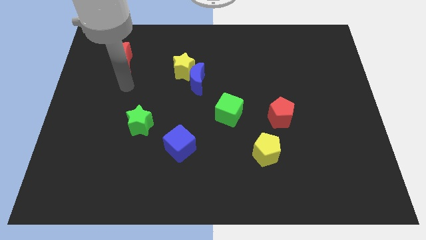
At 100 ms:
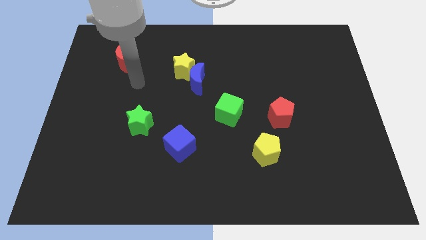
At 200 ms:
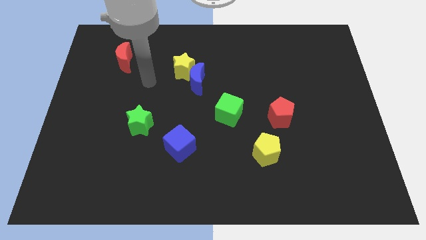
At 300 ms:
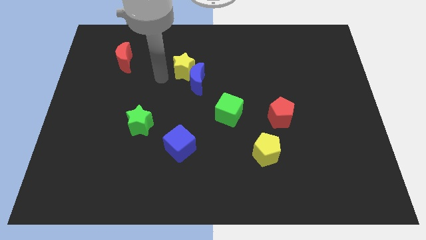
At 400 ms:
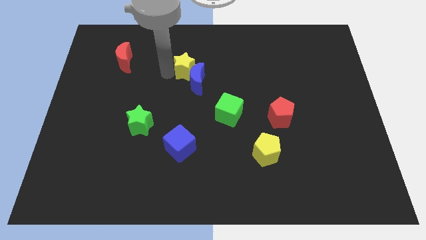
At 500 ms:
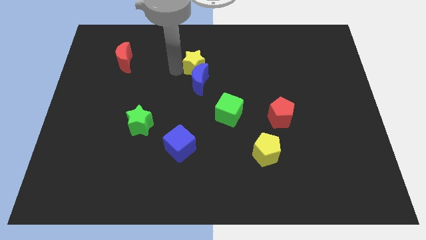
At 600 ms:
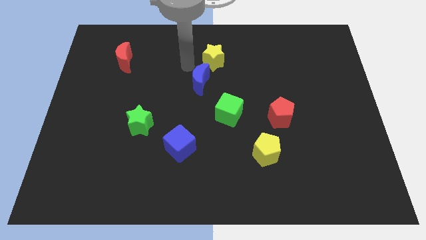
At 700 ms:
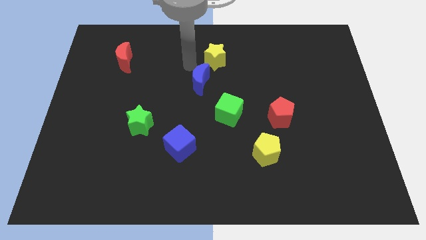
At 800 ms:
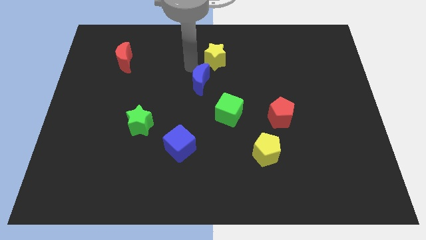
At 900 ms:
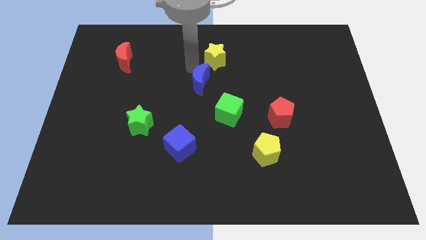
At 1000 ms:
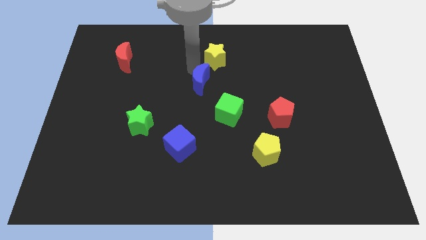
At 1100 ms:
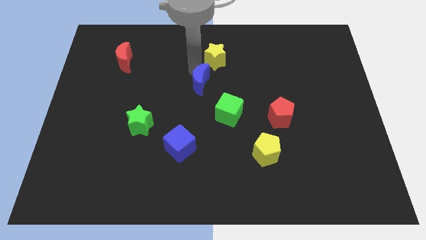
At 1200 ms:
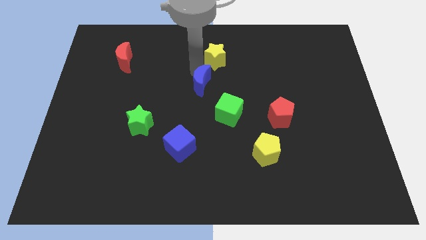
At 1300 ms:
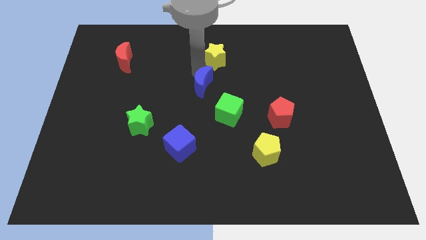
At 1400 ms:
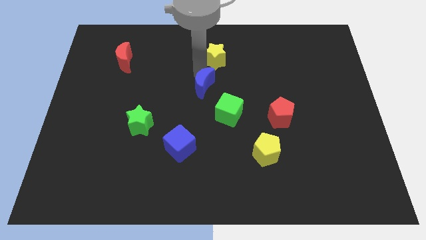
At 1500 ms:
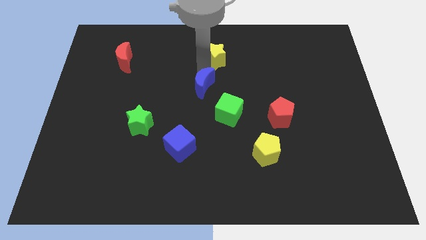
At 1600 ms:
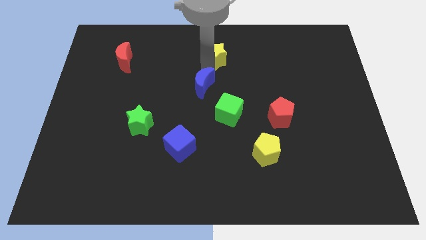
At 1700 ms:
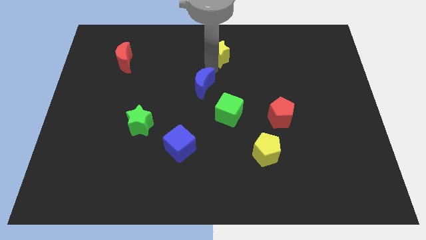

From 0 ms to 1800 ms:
separate the blue moon from the yellow star

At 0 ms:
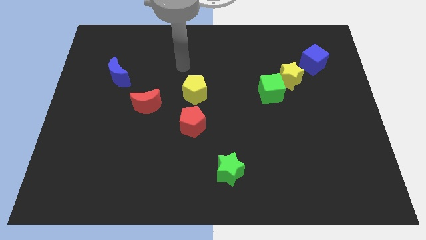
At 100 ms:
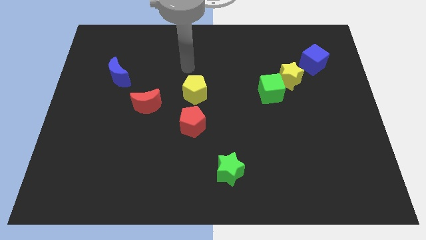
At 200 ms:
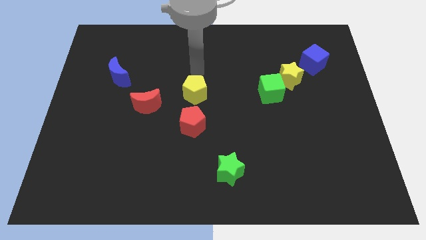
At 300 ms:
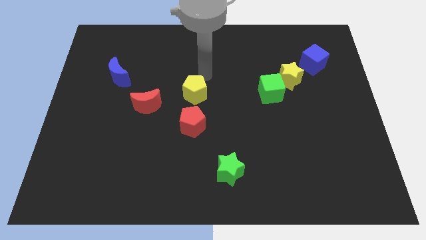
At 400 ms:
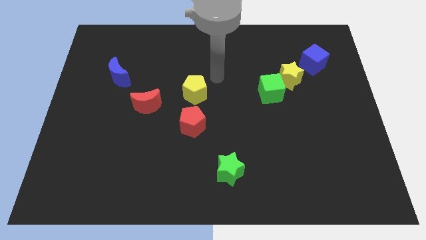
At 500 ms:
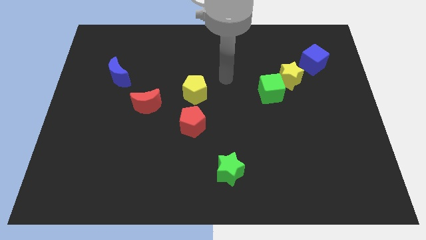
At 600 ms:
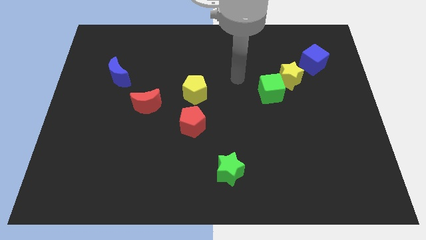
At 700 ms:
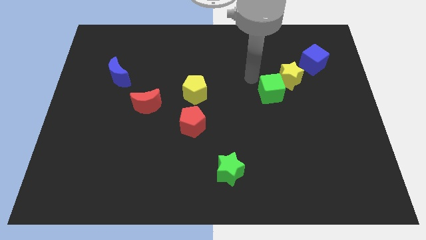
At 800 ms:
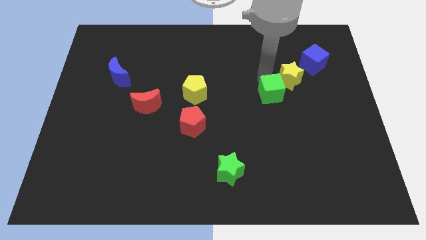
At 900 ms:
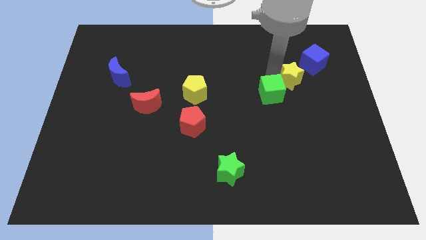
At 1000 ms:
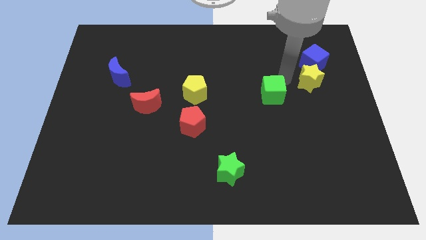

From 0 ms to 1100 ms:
pull the green cube apart from the yellow star

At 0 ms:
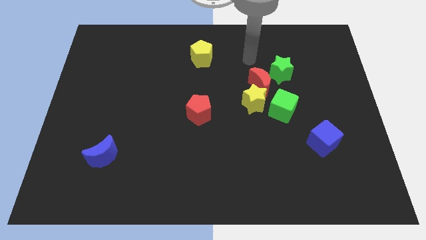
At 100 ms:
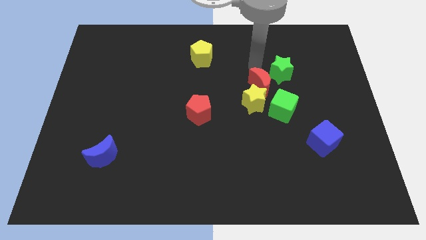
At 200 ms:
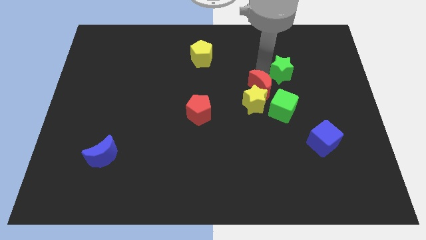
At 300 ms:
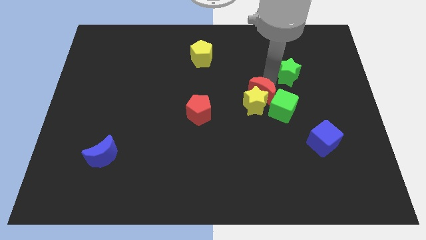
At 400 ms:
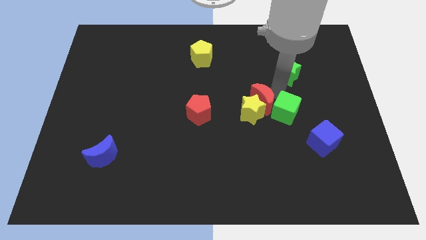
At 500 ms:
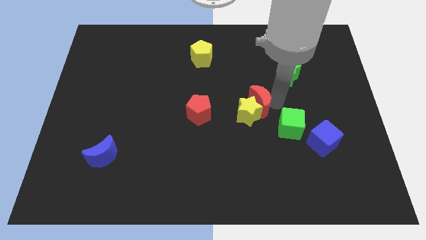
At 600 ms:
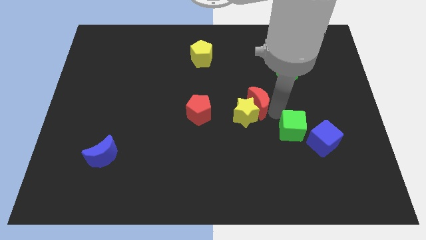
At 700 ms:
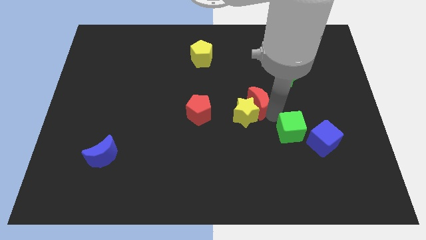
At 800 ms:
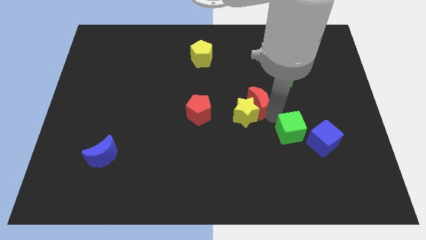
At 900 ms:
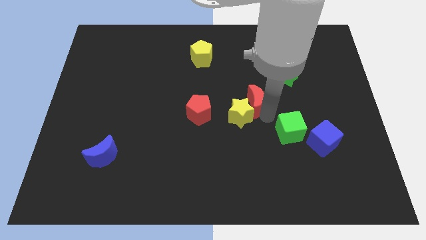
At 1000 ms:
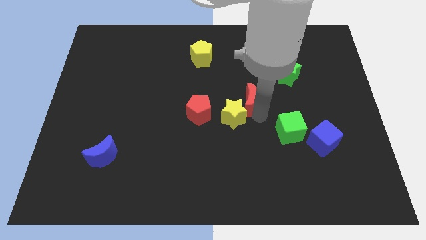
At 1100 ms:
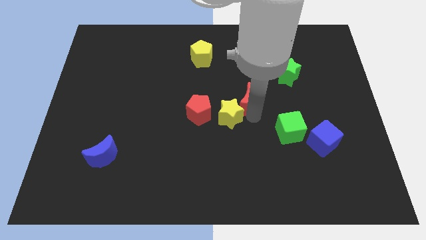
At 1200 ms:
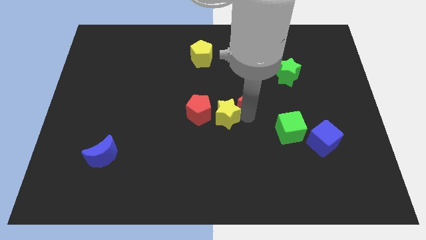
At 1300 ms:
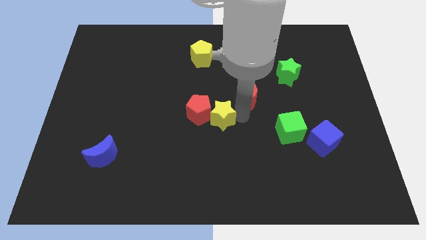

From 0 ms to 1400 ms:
pull the yellow star apart from the red moon and green cube

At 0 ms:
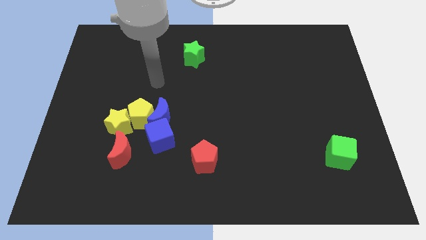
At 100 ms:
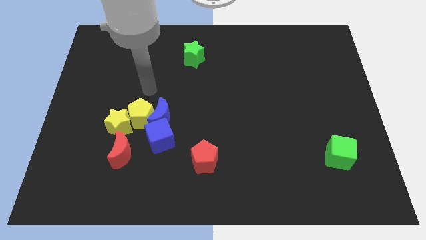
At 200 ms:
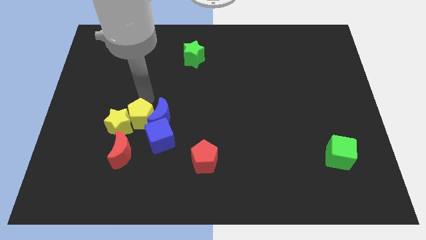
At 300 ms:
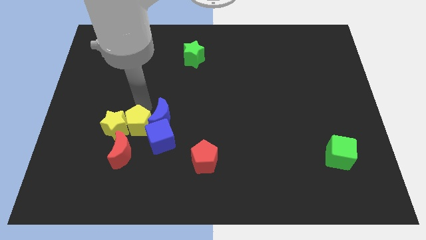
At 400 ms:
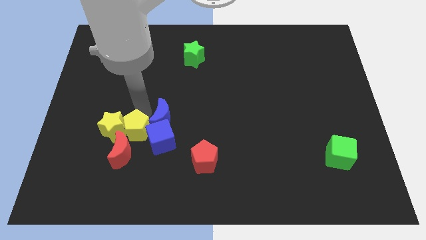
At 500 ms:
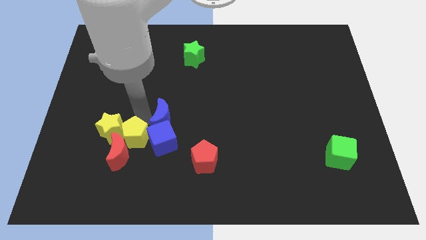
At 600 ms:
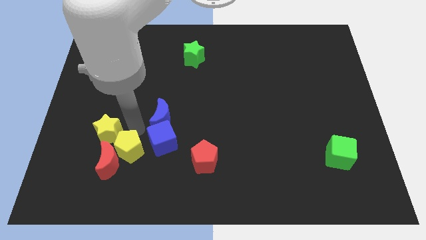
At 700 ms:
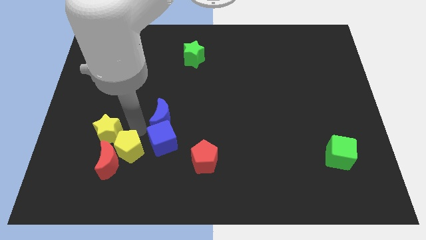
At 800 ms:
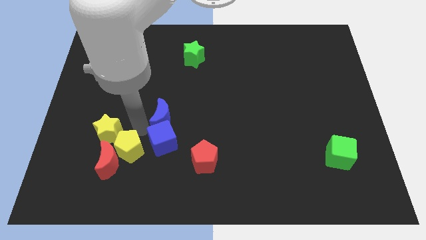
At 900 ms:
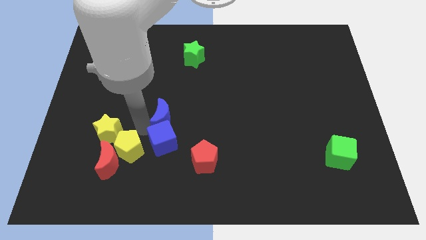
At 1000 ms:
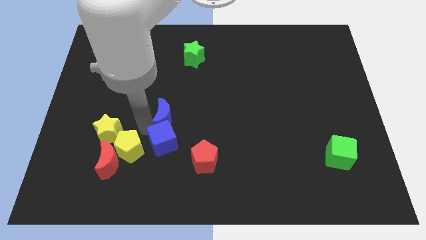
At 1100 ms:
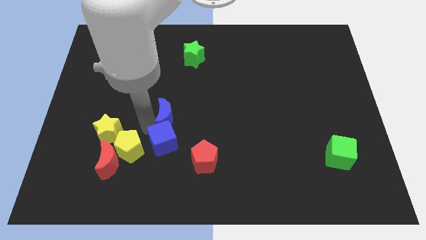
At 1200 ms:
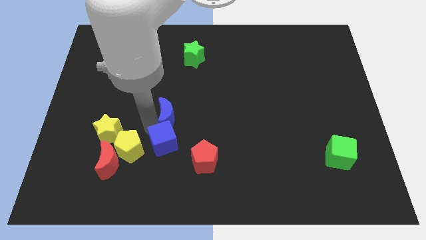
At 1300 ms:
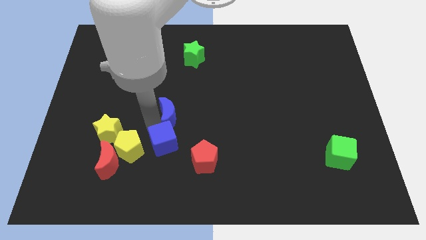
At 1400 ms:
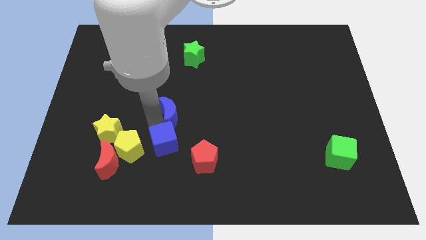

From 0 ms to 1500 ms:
move the blue moon away from the group of blocks

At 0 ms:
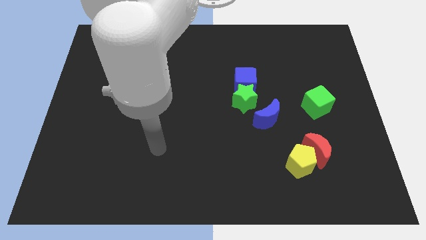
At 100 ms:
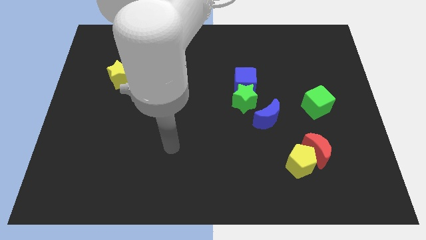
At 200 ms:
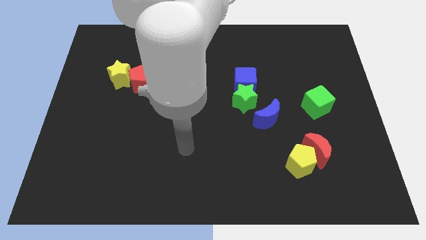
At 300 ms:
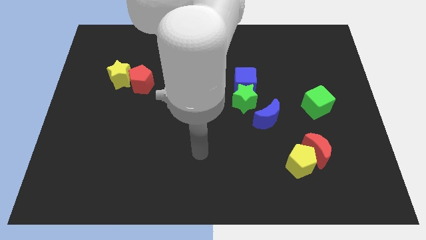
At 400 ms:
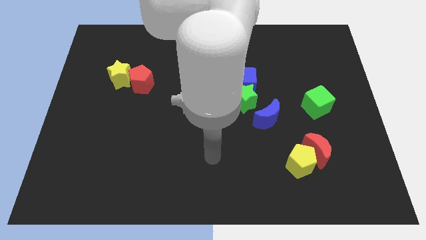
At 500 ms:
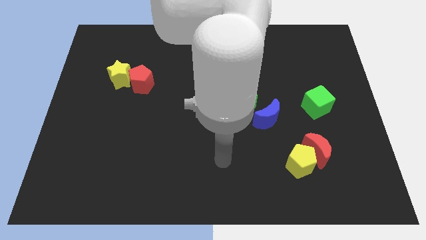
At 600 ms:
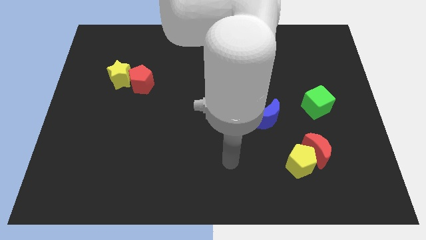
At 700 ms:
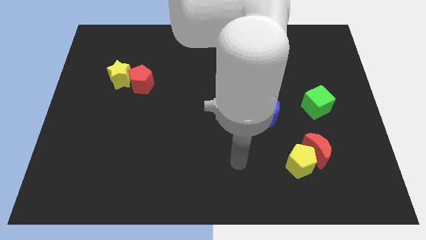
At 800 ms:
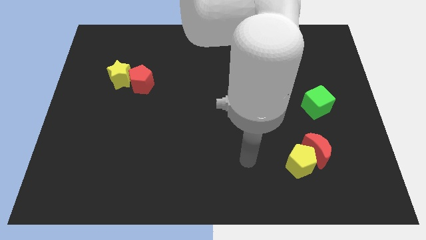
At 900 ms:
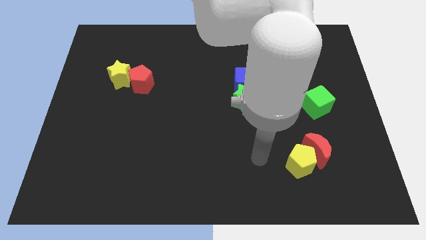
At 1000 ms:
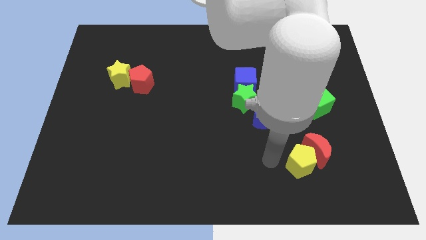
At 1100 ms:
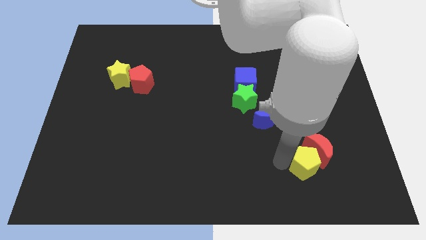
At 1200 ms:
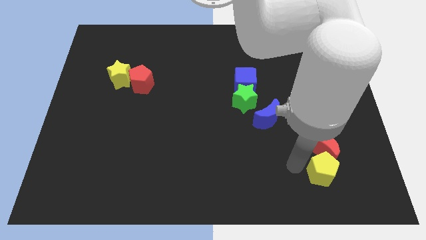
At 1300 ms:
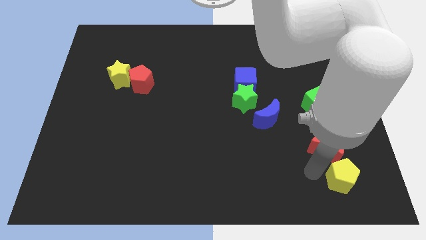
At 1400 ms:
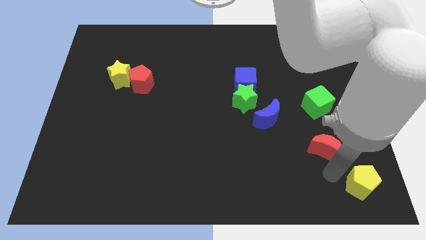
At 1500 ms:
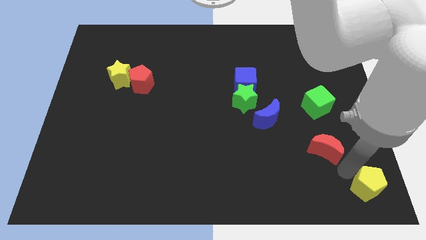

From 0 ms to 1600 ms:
pull the red moon apart from the yellow pentagon

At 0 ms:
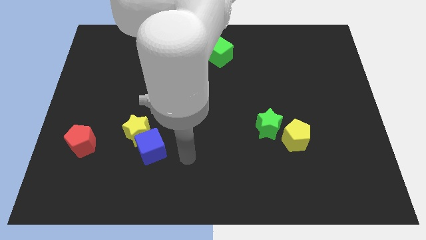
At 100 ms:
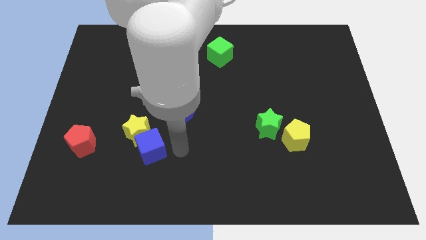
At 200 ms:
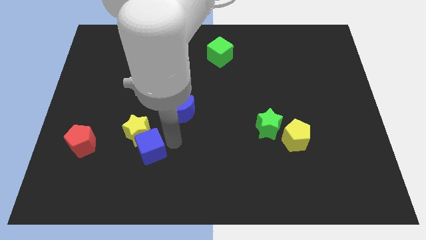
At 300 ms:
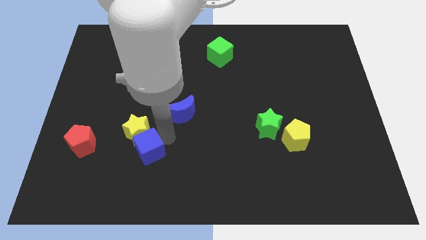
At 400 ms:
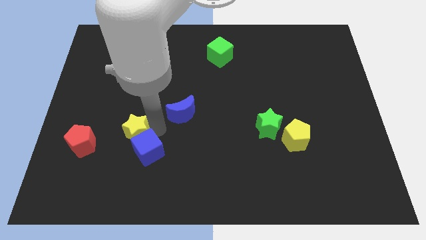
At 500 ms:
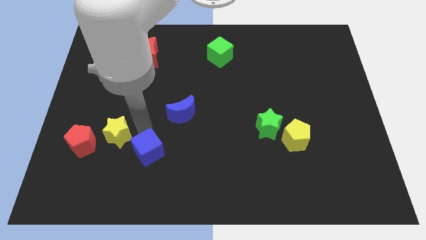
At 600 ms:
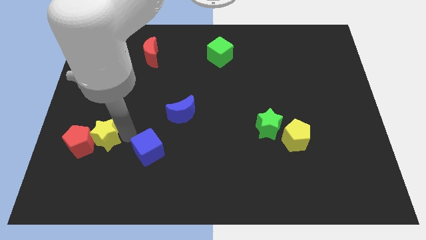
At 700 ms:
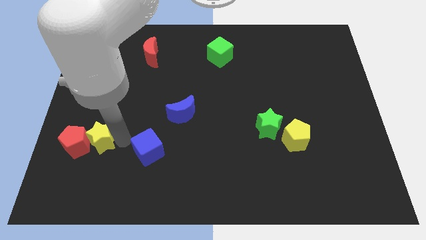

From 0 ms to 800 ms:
pull the blue cube apart from the yellow star

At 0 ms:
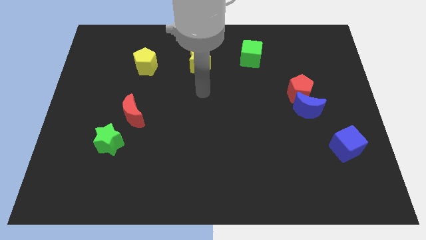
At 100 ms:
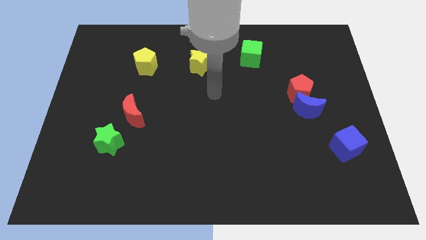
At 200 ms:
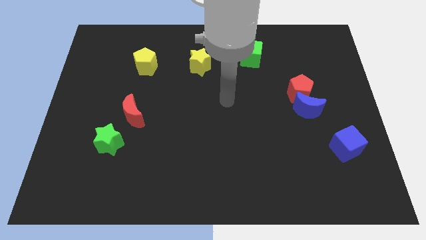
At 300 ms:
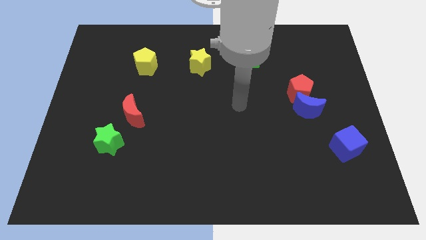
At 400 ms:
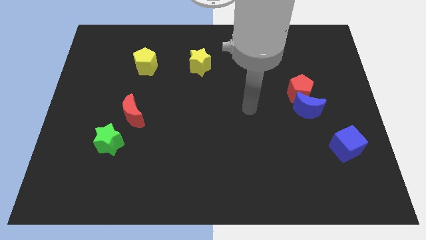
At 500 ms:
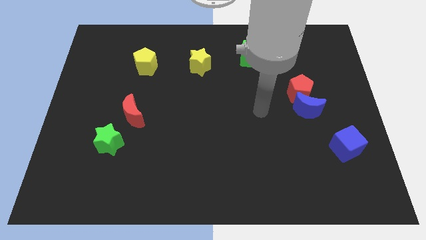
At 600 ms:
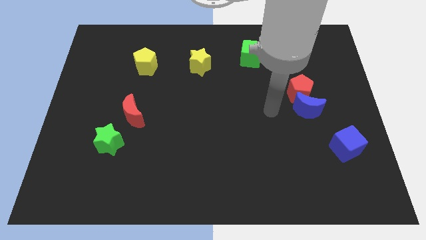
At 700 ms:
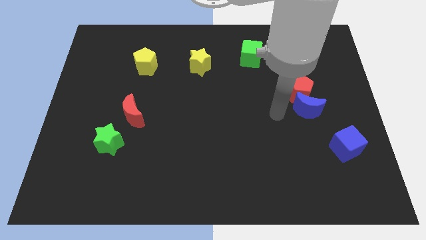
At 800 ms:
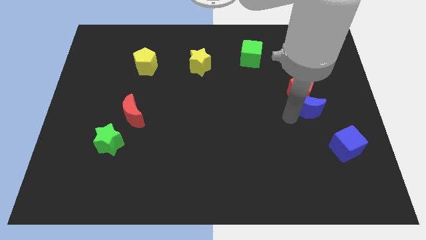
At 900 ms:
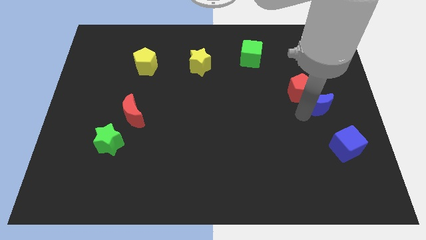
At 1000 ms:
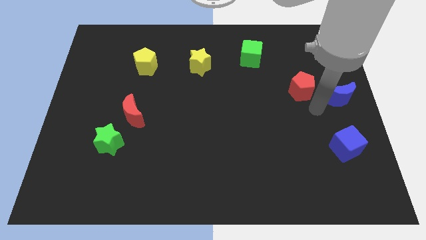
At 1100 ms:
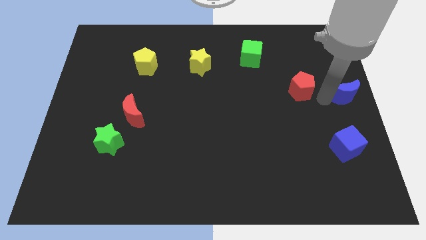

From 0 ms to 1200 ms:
move the red pentagon away from the blue moon
